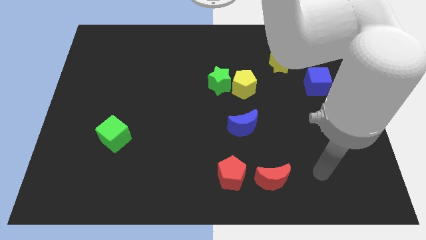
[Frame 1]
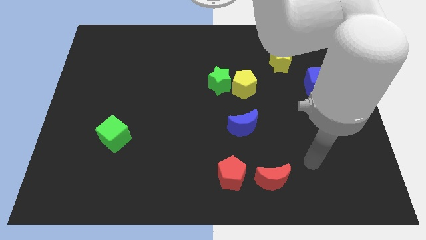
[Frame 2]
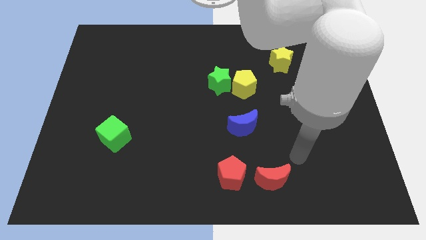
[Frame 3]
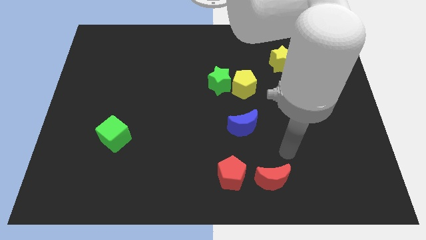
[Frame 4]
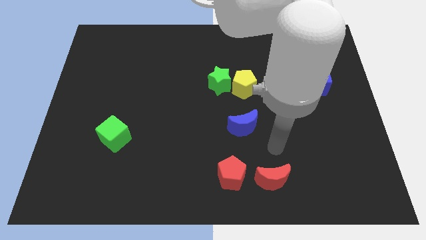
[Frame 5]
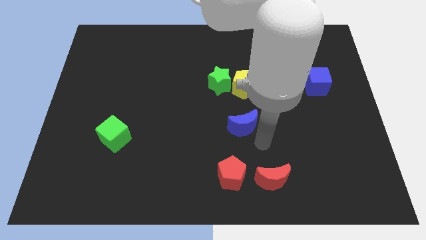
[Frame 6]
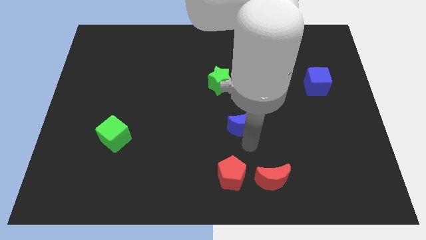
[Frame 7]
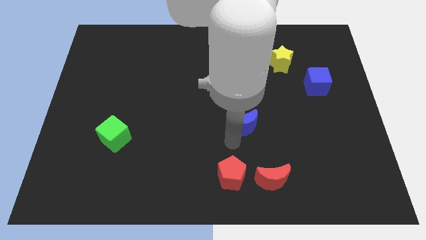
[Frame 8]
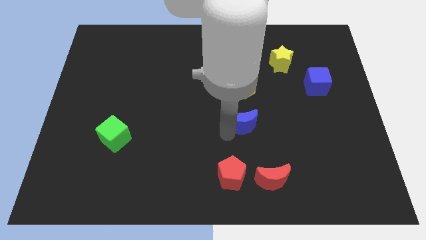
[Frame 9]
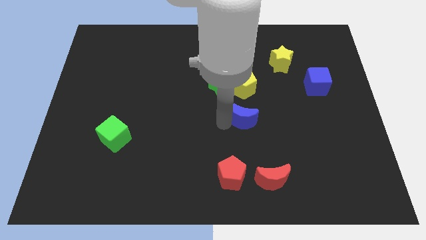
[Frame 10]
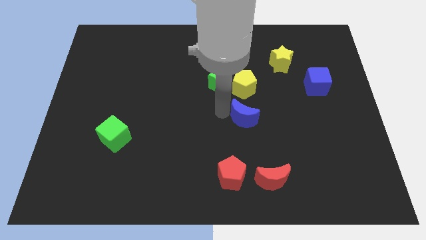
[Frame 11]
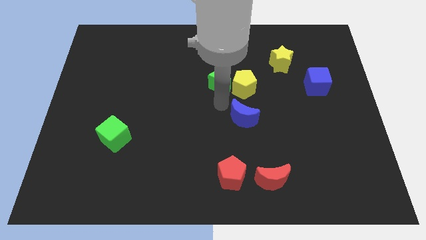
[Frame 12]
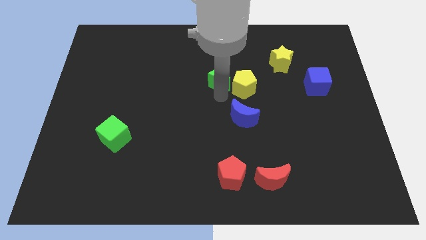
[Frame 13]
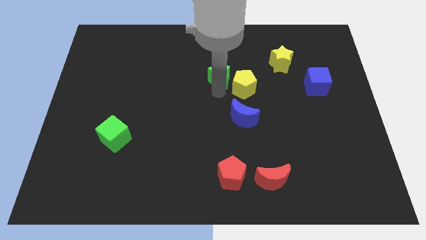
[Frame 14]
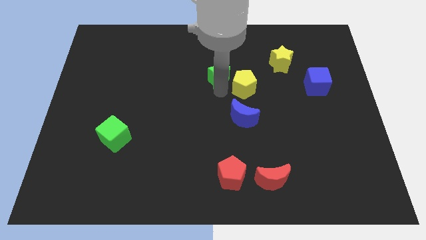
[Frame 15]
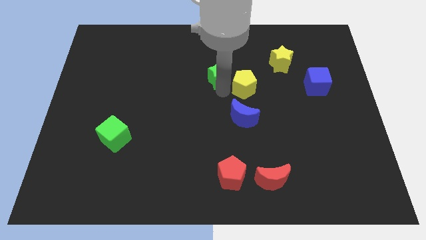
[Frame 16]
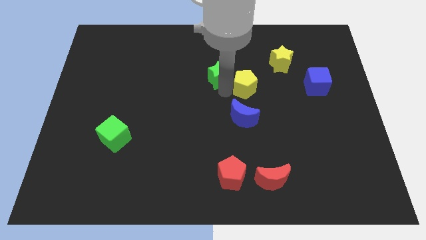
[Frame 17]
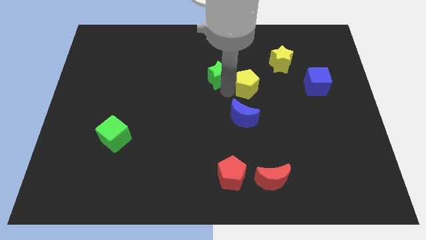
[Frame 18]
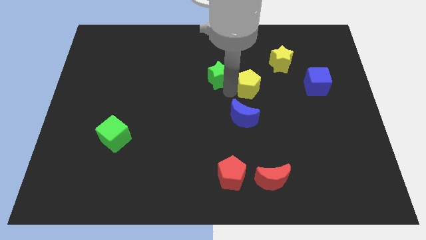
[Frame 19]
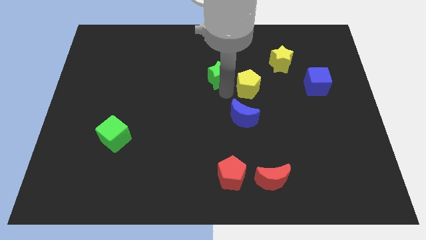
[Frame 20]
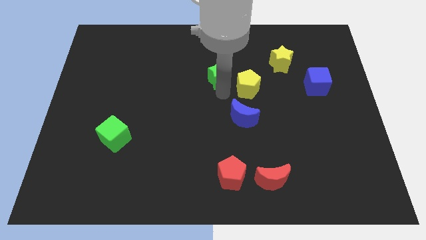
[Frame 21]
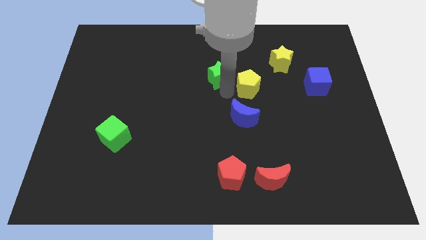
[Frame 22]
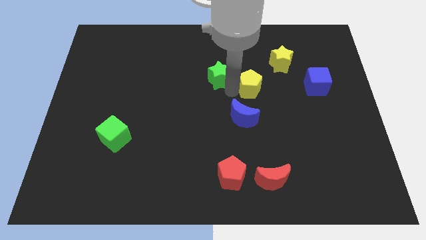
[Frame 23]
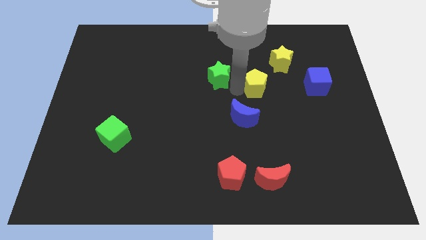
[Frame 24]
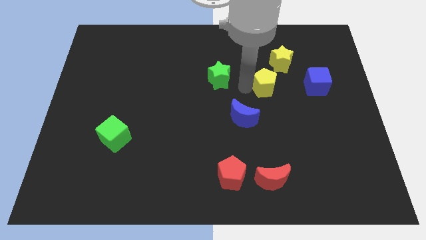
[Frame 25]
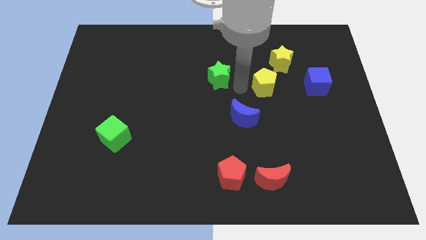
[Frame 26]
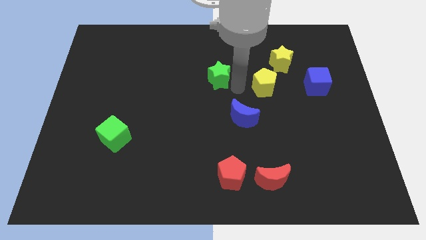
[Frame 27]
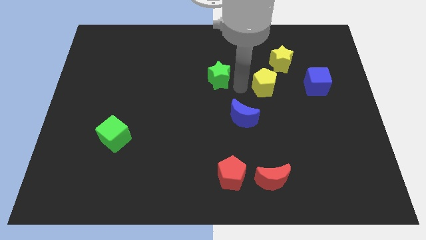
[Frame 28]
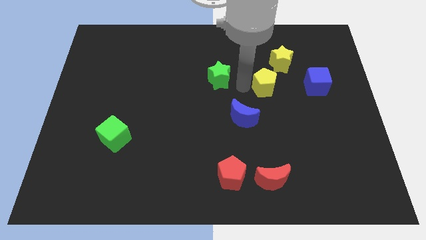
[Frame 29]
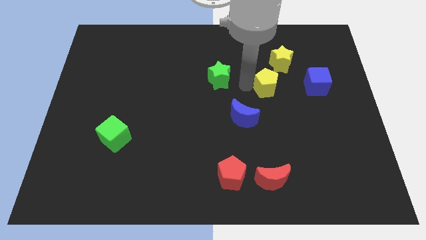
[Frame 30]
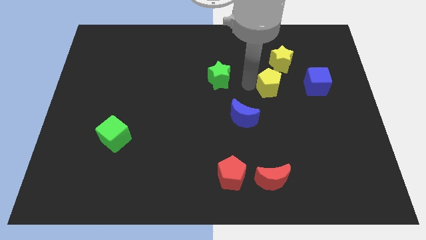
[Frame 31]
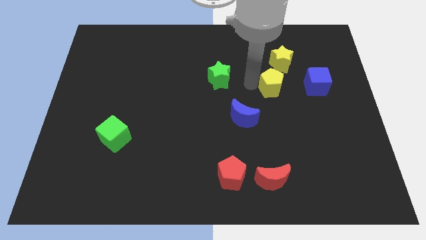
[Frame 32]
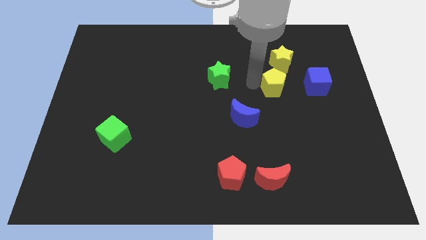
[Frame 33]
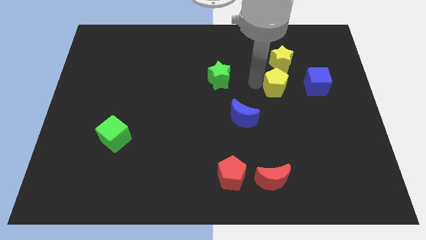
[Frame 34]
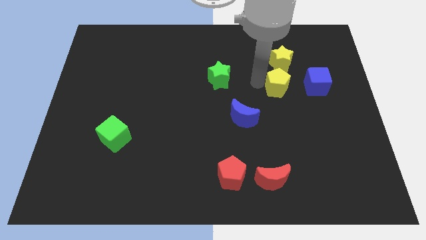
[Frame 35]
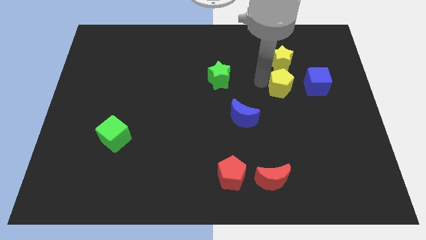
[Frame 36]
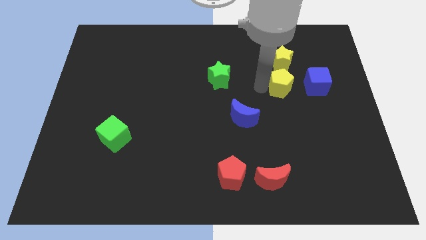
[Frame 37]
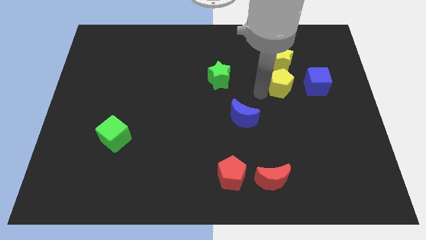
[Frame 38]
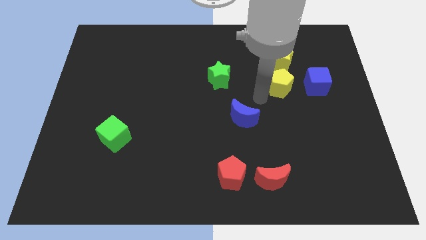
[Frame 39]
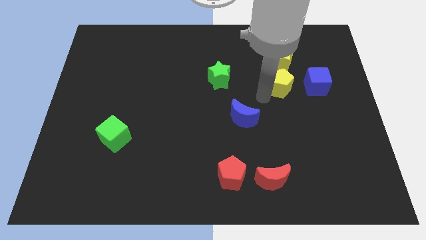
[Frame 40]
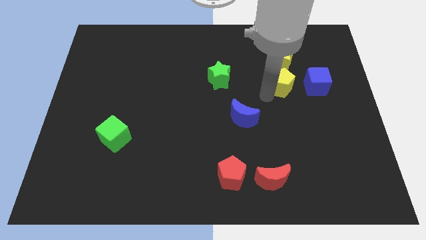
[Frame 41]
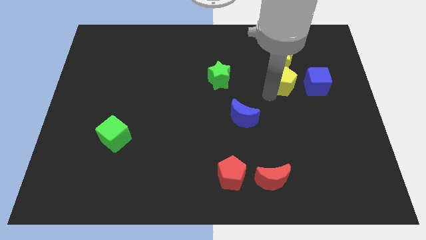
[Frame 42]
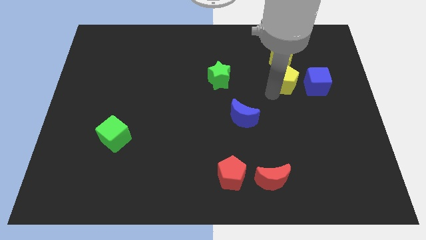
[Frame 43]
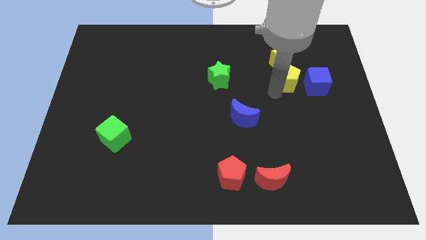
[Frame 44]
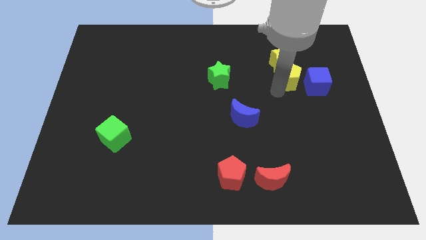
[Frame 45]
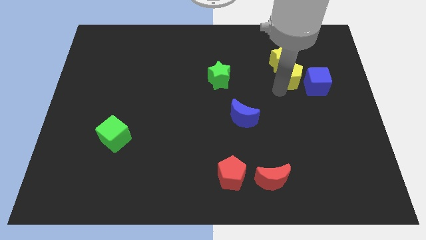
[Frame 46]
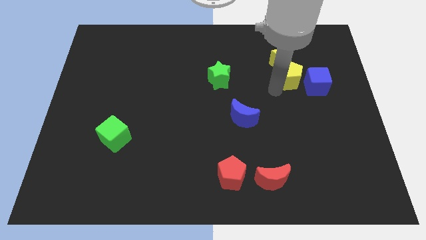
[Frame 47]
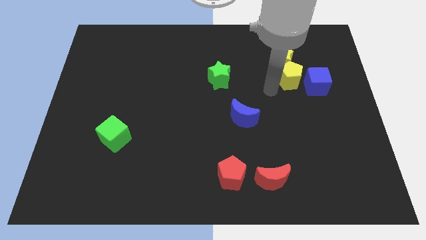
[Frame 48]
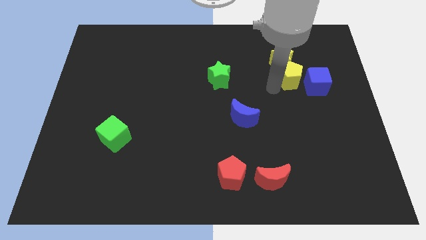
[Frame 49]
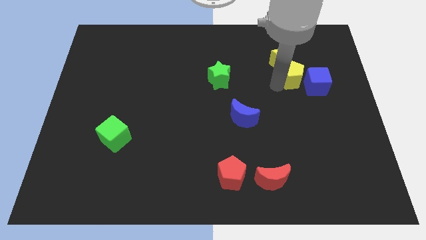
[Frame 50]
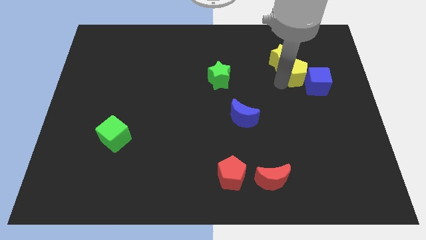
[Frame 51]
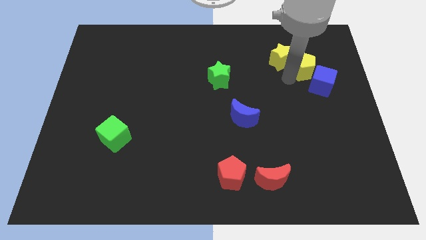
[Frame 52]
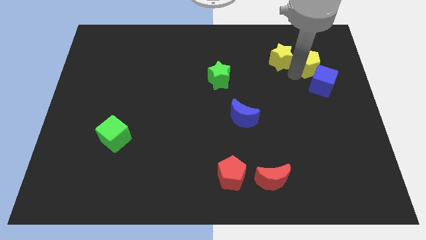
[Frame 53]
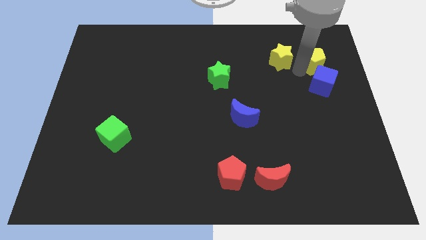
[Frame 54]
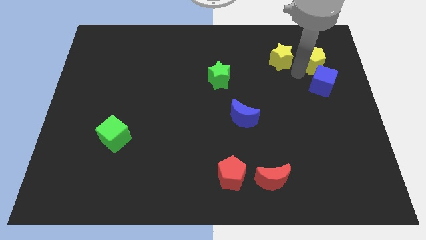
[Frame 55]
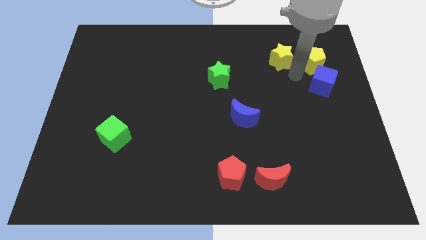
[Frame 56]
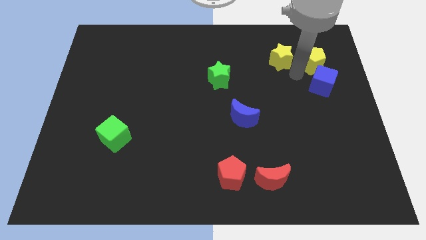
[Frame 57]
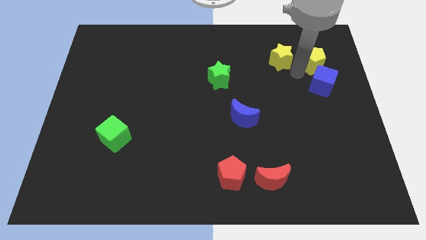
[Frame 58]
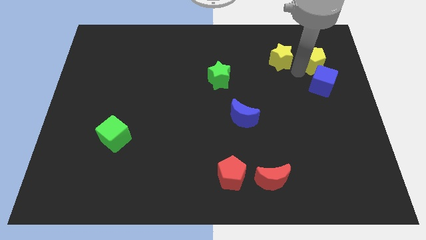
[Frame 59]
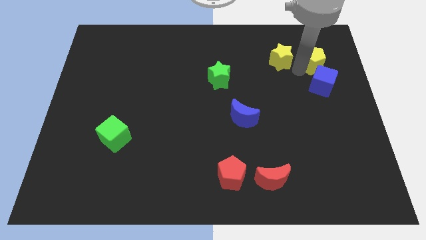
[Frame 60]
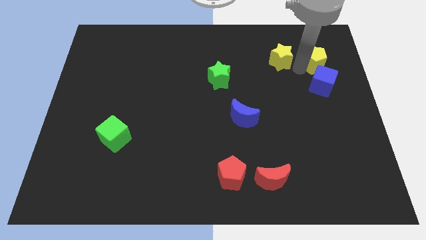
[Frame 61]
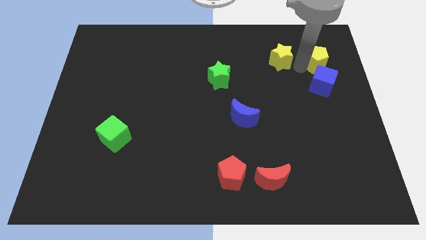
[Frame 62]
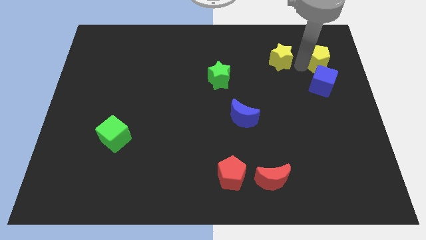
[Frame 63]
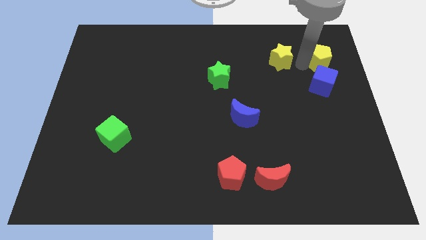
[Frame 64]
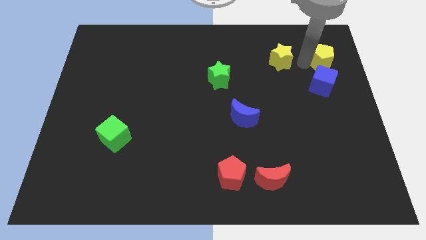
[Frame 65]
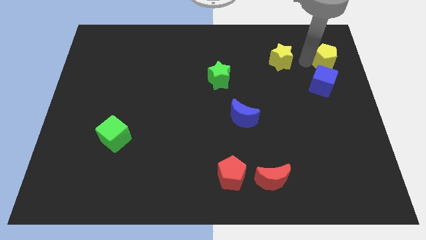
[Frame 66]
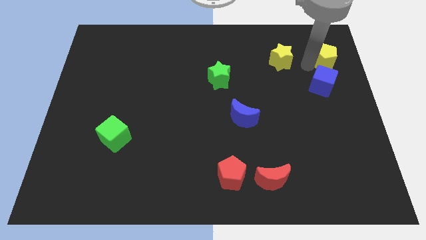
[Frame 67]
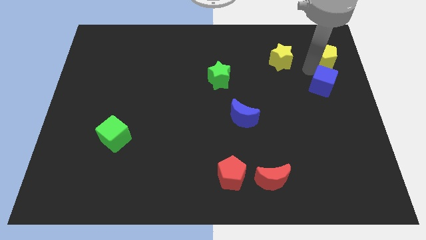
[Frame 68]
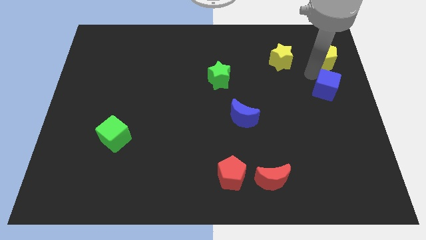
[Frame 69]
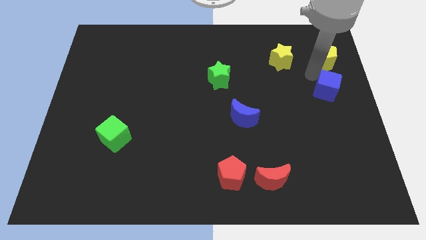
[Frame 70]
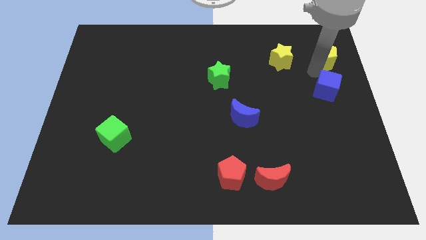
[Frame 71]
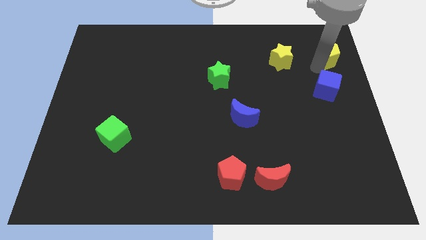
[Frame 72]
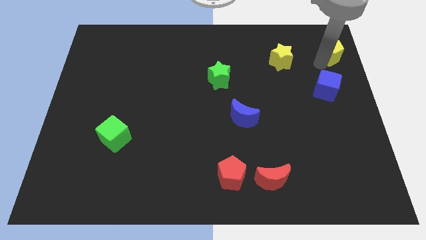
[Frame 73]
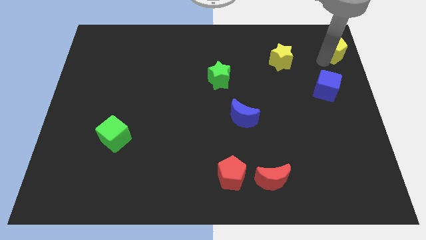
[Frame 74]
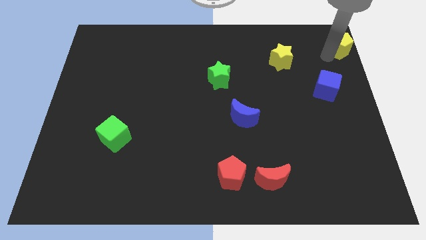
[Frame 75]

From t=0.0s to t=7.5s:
put the yellow pentagon to the top right
